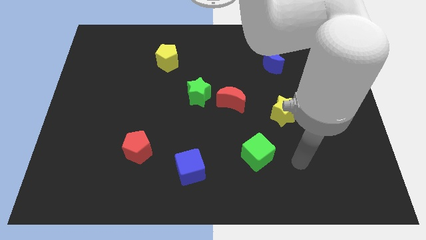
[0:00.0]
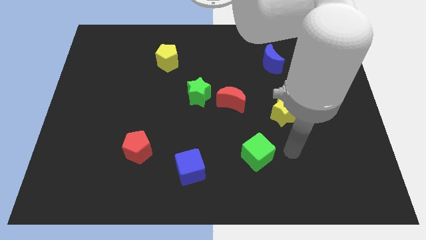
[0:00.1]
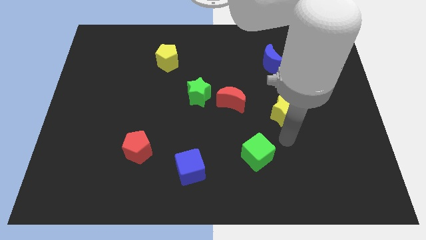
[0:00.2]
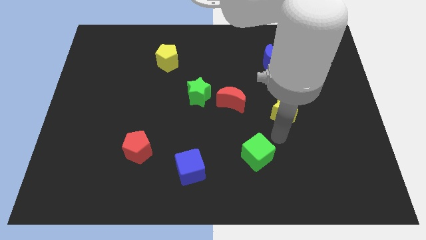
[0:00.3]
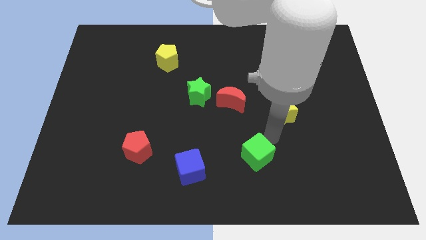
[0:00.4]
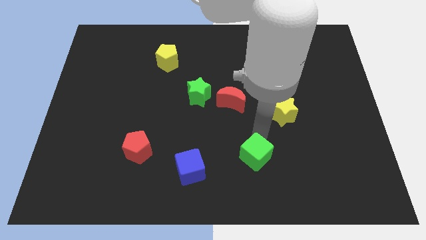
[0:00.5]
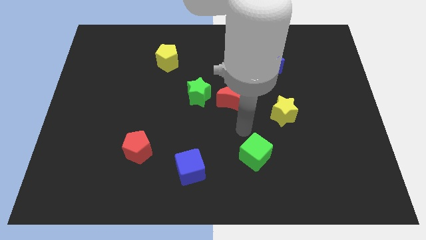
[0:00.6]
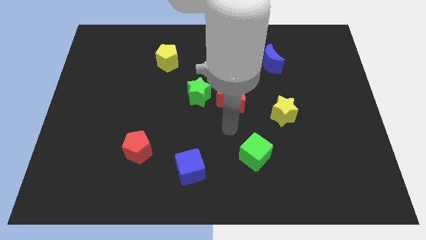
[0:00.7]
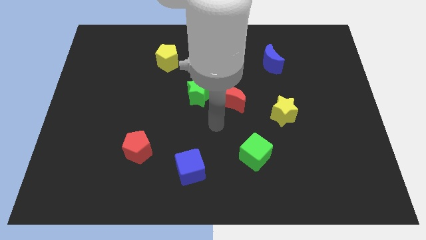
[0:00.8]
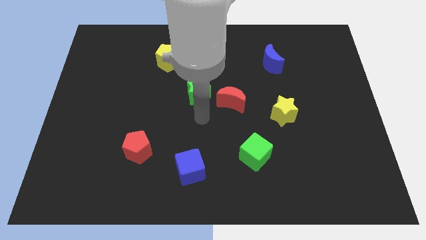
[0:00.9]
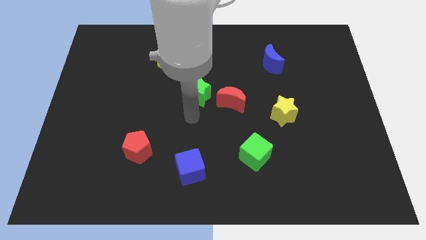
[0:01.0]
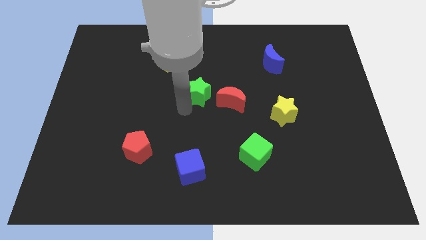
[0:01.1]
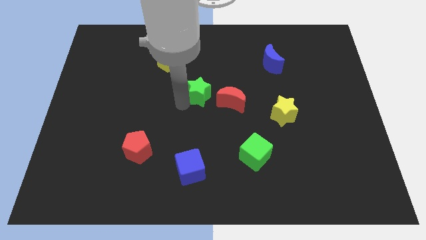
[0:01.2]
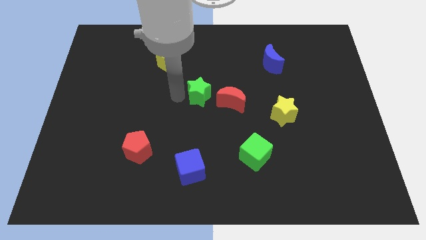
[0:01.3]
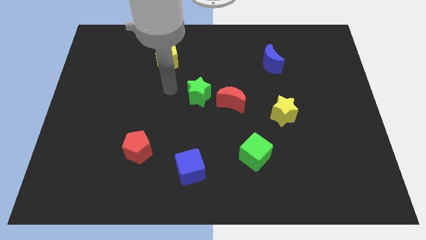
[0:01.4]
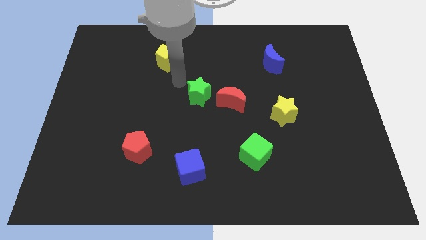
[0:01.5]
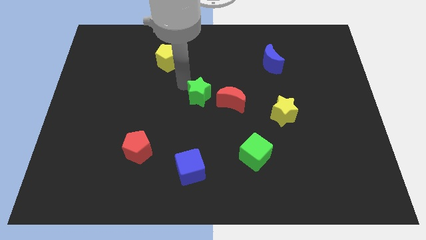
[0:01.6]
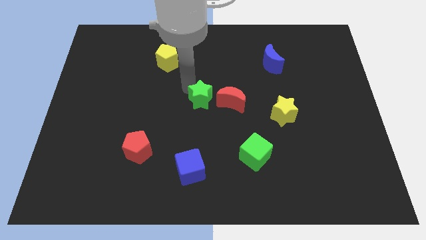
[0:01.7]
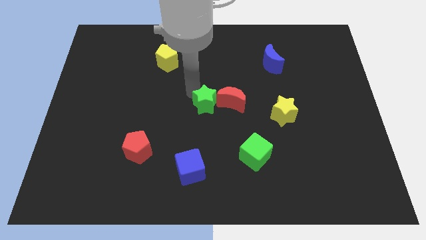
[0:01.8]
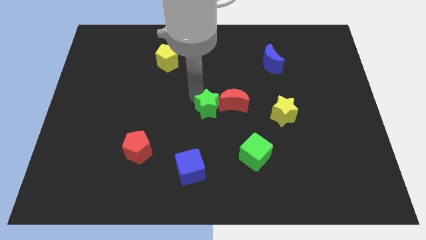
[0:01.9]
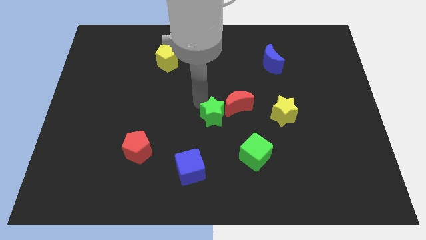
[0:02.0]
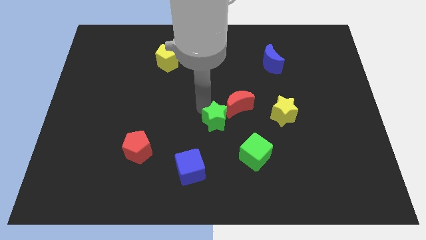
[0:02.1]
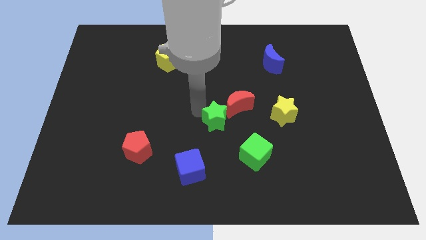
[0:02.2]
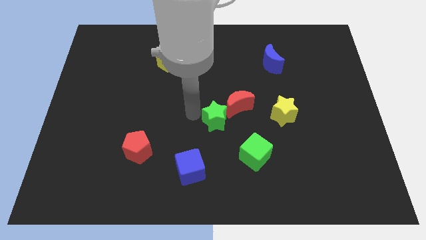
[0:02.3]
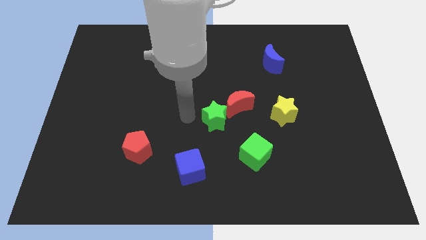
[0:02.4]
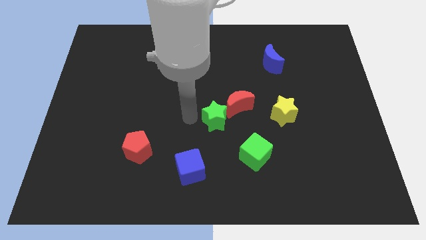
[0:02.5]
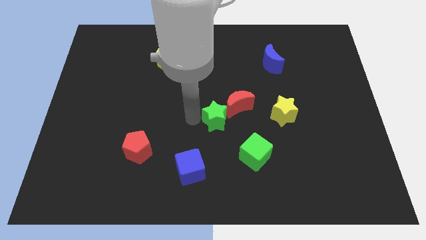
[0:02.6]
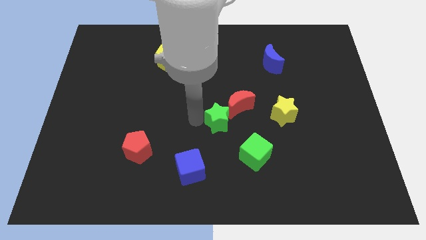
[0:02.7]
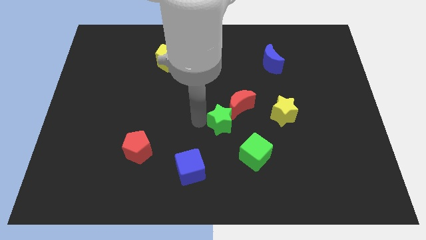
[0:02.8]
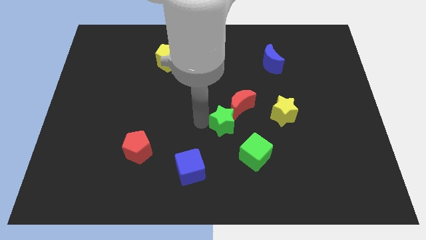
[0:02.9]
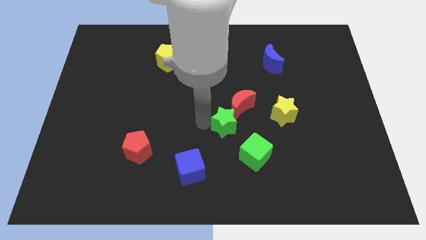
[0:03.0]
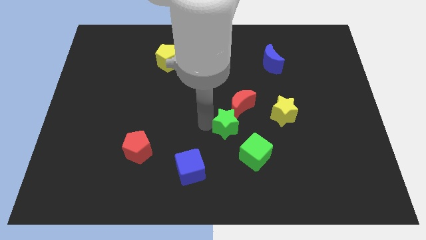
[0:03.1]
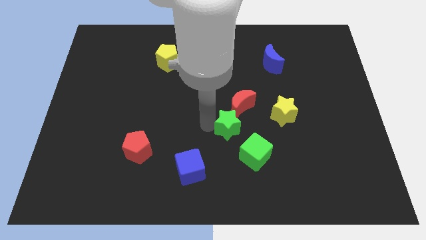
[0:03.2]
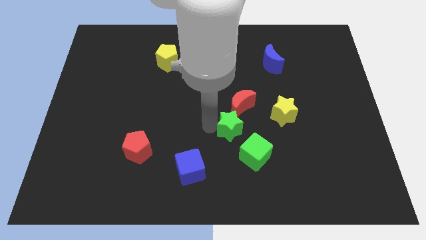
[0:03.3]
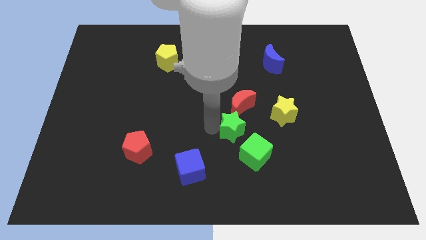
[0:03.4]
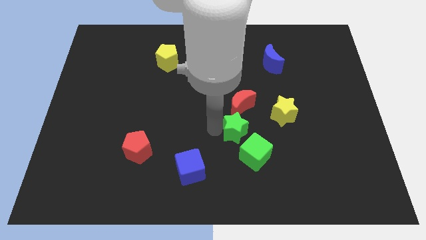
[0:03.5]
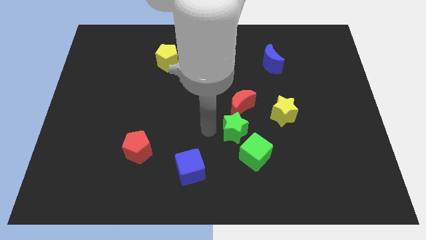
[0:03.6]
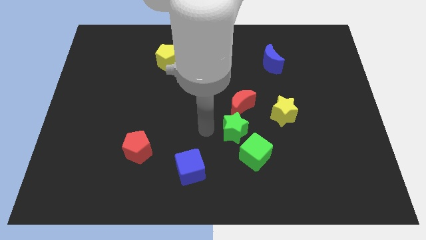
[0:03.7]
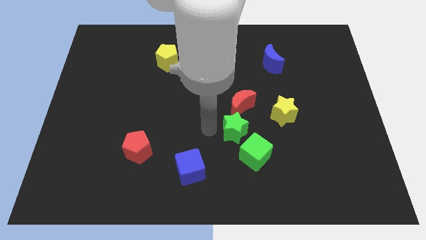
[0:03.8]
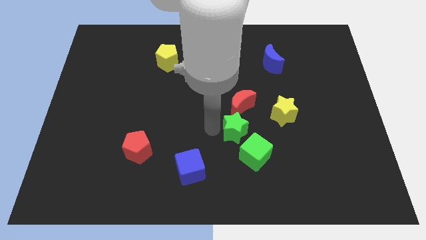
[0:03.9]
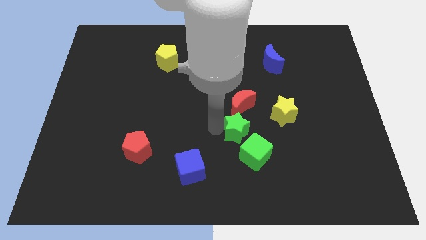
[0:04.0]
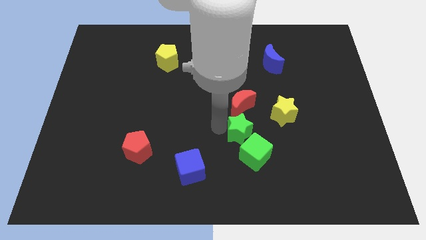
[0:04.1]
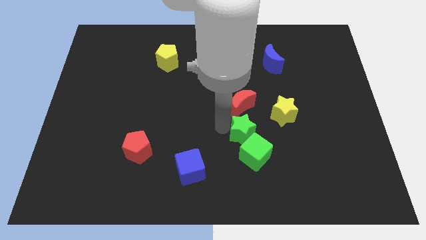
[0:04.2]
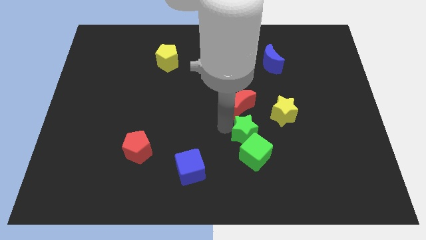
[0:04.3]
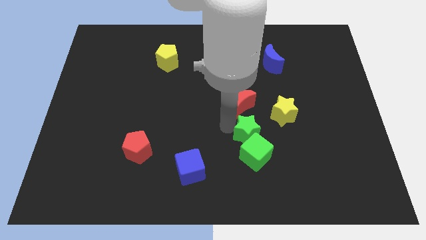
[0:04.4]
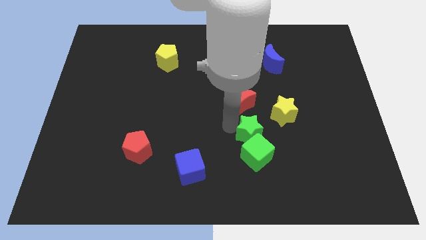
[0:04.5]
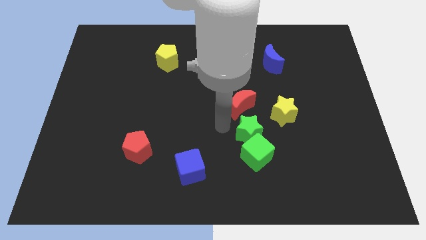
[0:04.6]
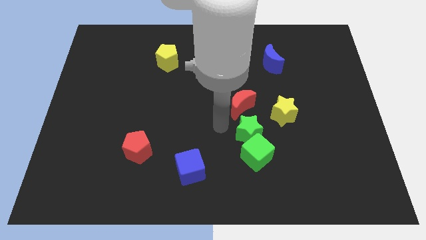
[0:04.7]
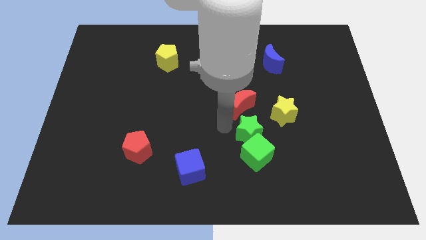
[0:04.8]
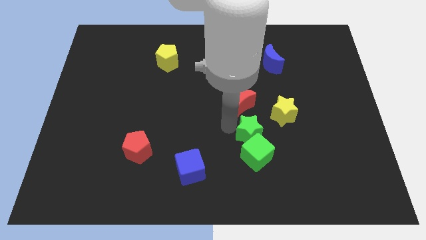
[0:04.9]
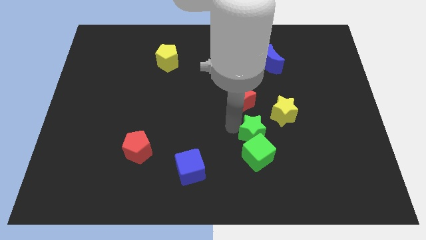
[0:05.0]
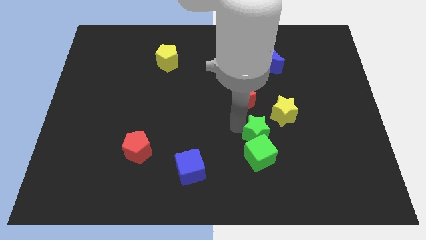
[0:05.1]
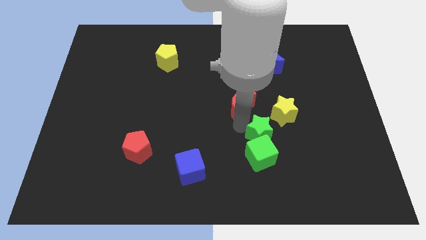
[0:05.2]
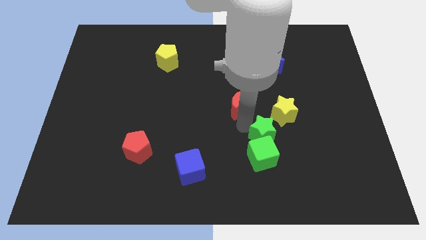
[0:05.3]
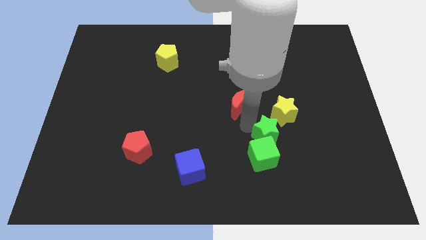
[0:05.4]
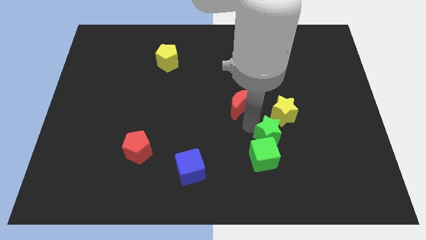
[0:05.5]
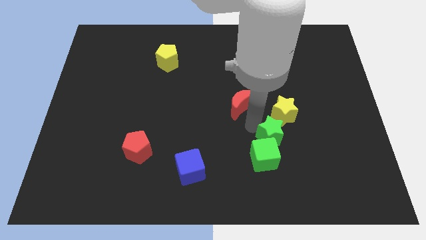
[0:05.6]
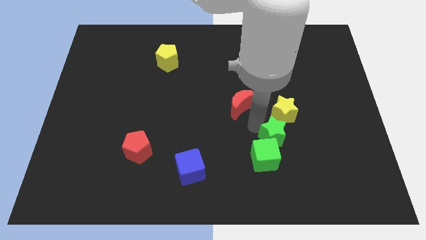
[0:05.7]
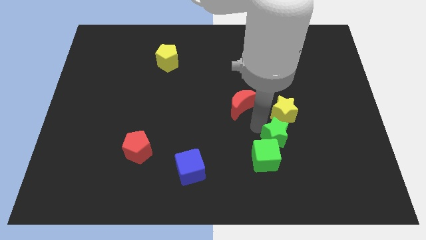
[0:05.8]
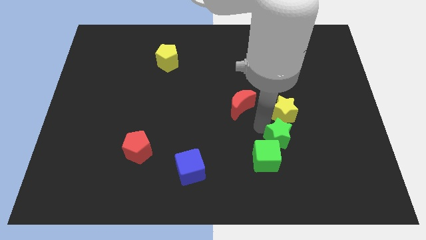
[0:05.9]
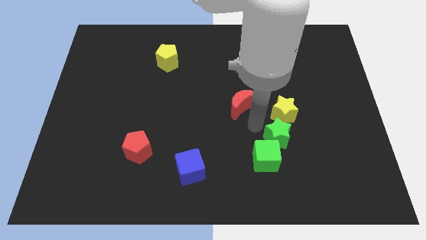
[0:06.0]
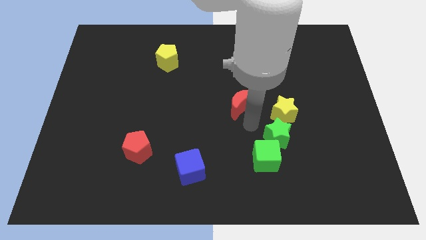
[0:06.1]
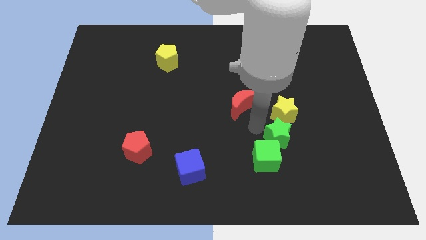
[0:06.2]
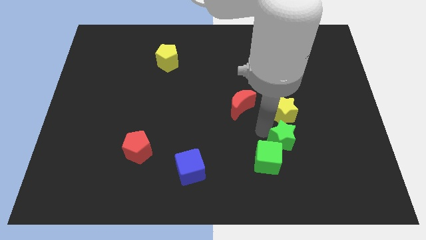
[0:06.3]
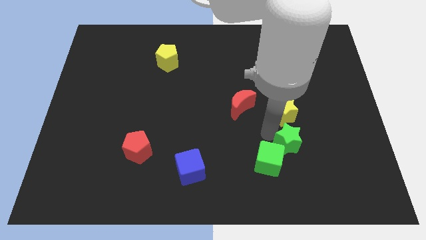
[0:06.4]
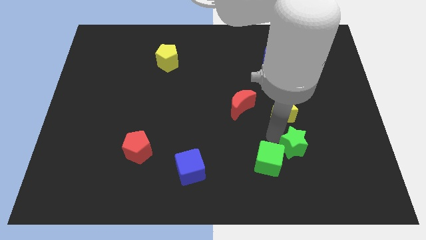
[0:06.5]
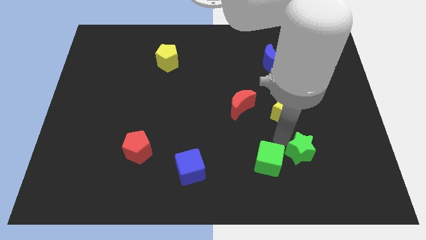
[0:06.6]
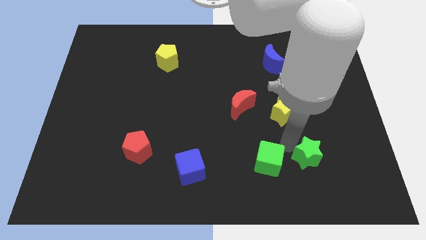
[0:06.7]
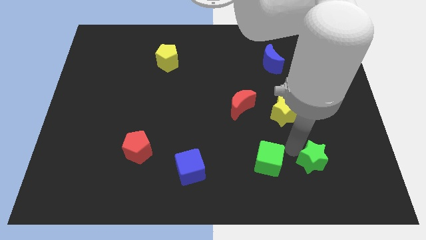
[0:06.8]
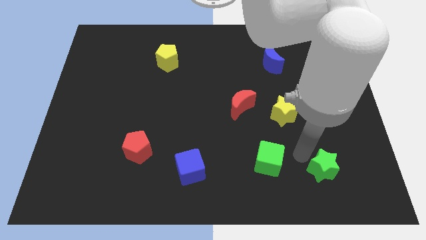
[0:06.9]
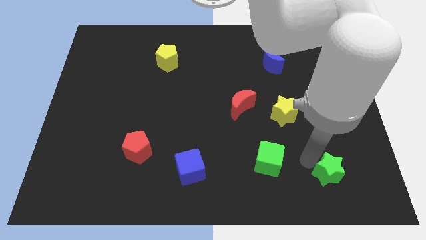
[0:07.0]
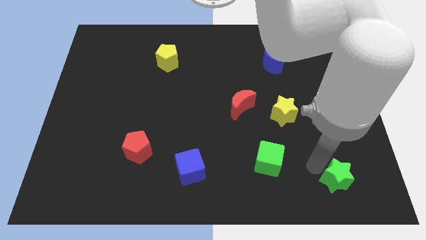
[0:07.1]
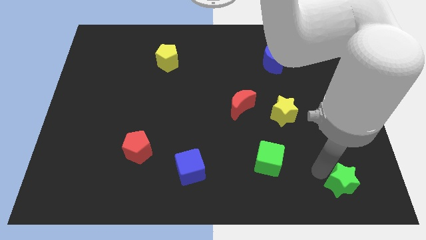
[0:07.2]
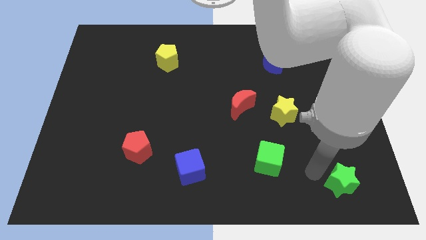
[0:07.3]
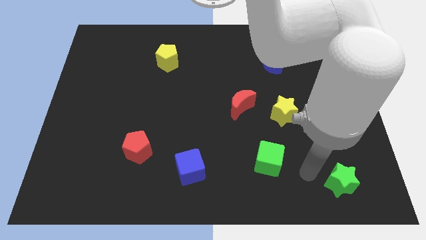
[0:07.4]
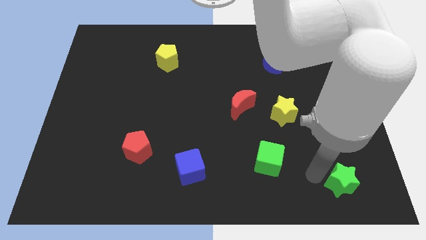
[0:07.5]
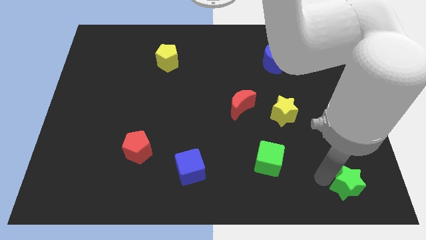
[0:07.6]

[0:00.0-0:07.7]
push the green star to the bottom right corner
